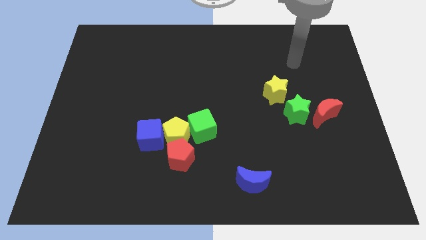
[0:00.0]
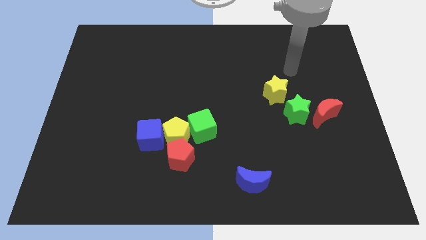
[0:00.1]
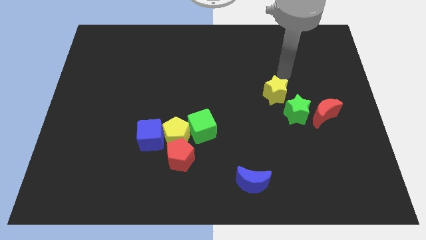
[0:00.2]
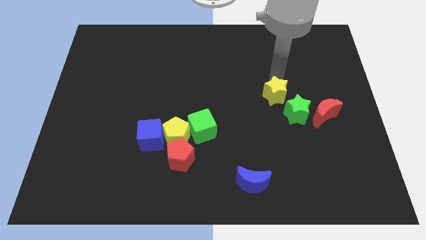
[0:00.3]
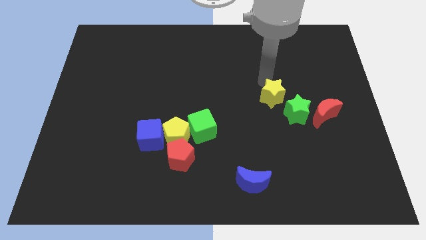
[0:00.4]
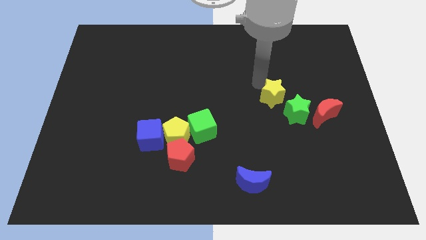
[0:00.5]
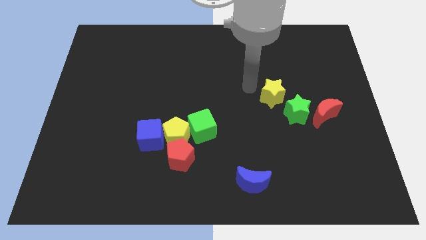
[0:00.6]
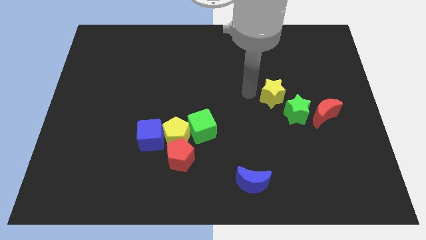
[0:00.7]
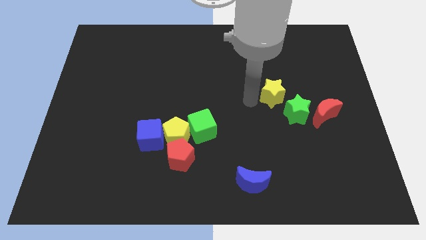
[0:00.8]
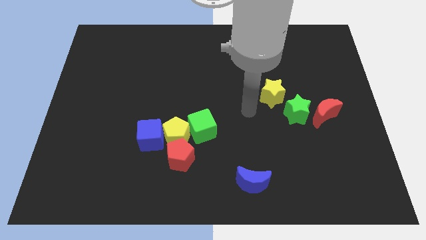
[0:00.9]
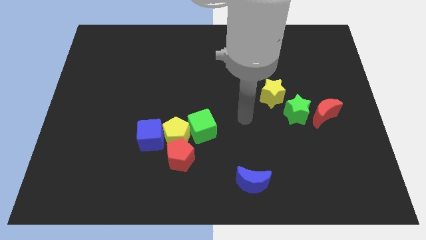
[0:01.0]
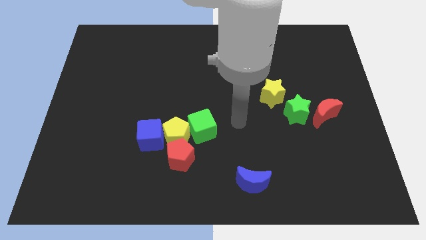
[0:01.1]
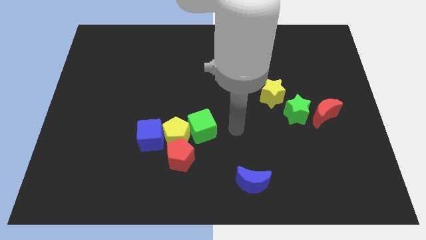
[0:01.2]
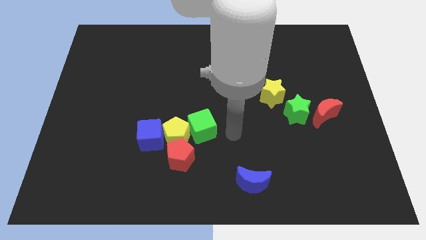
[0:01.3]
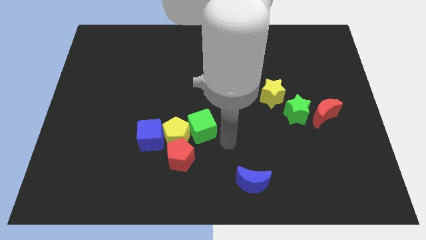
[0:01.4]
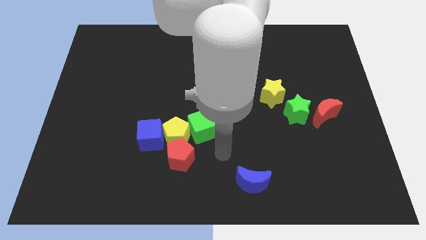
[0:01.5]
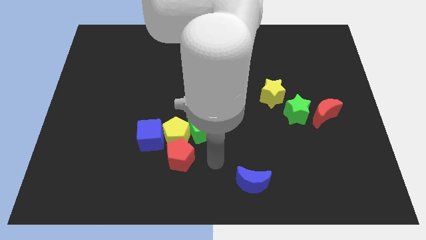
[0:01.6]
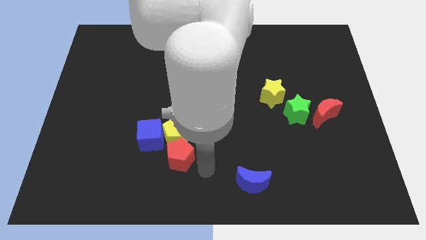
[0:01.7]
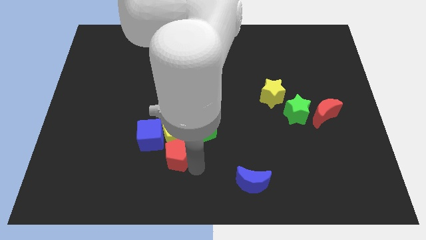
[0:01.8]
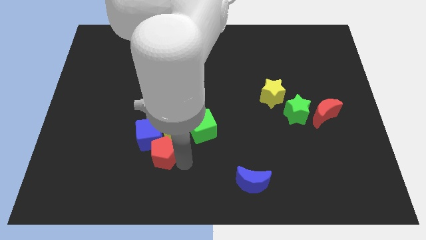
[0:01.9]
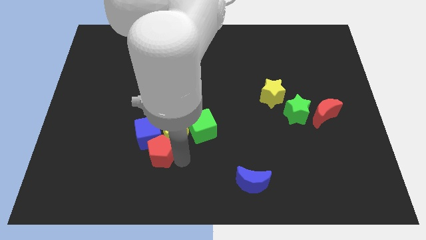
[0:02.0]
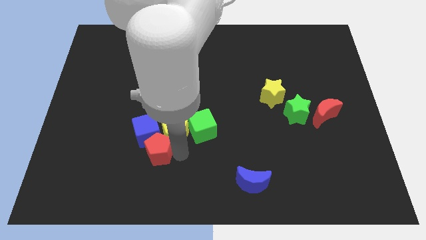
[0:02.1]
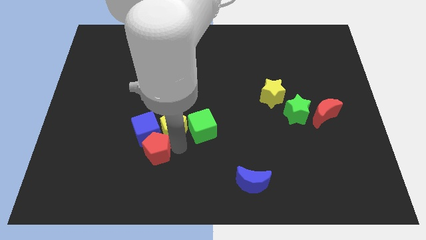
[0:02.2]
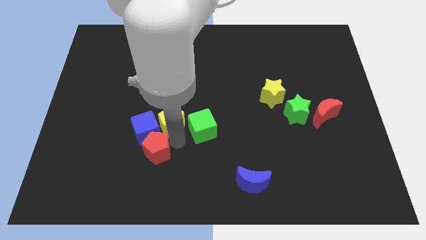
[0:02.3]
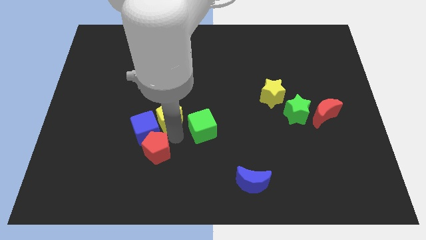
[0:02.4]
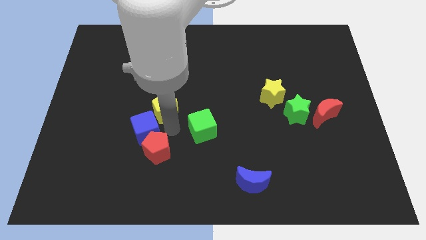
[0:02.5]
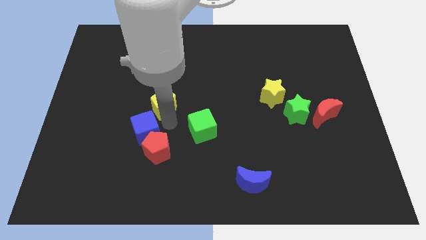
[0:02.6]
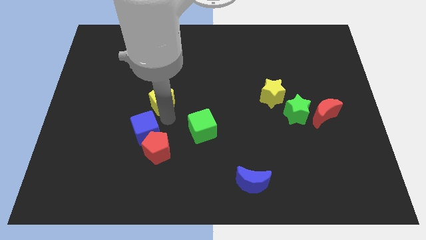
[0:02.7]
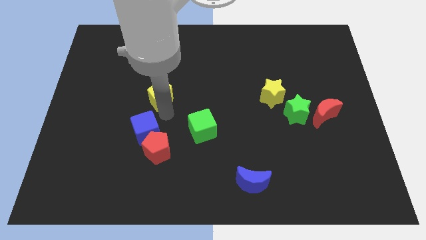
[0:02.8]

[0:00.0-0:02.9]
pull the yellow pentagon apart from the red pentagon, blue cube, and green cube

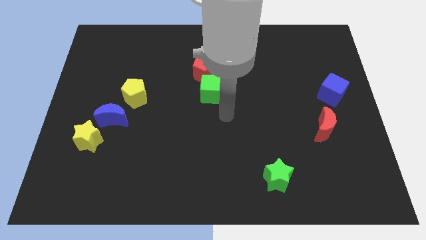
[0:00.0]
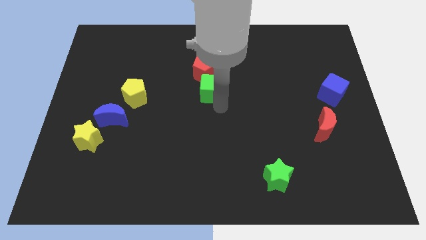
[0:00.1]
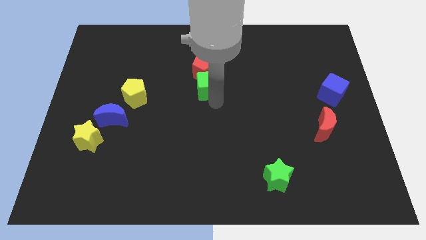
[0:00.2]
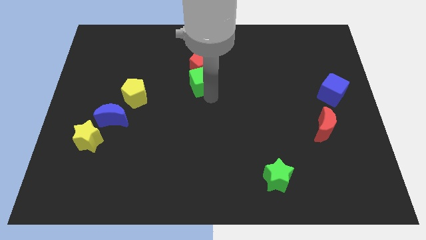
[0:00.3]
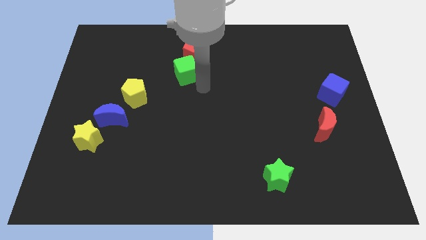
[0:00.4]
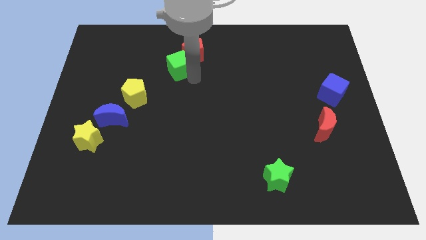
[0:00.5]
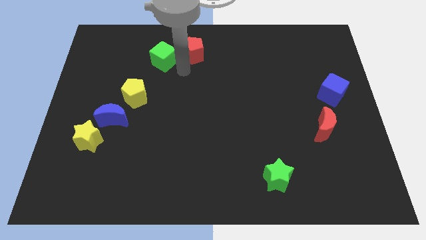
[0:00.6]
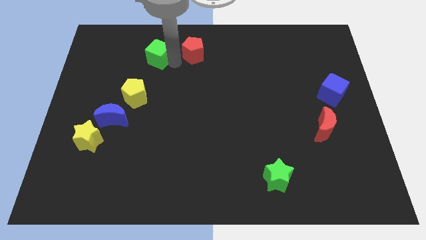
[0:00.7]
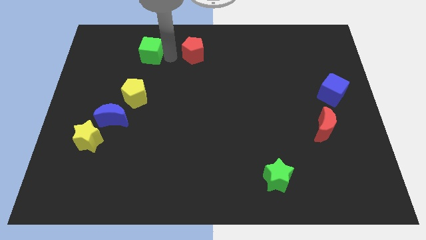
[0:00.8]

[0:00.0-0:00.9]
move the red pentagon away from the green cube

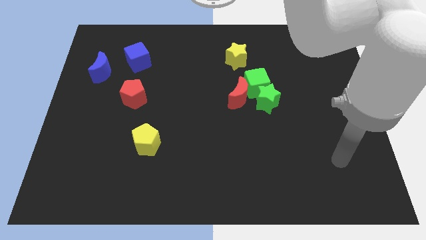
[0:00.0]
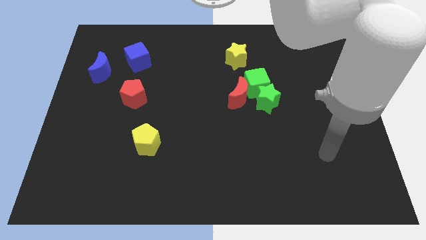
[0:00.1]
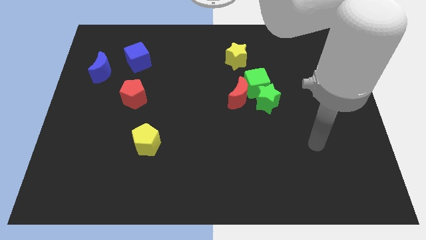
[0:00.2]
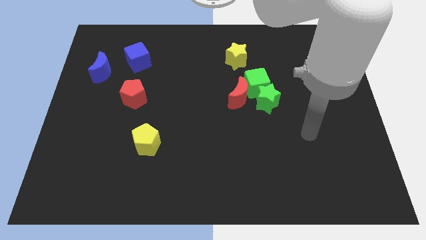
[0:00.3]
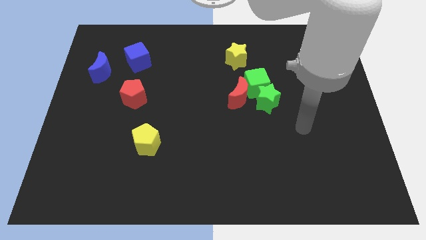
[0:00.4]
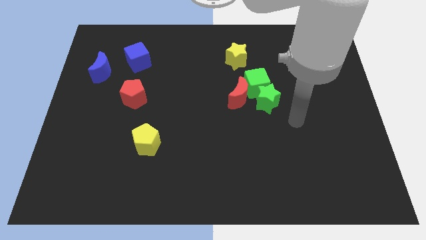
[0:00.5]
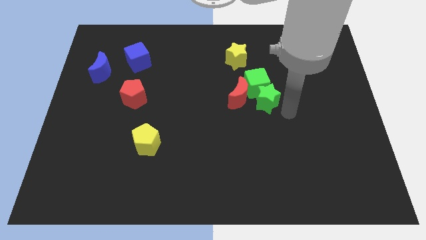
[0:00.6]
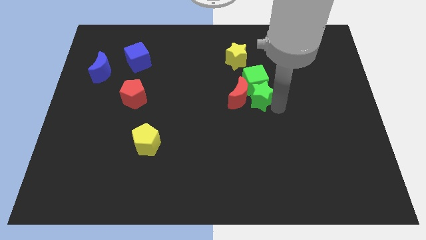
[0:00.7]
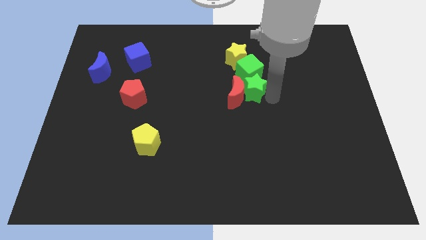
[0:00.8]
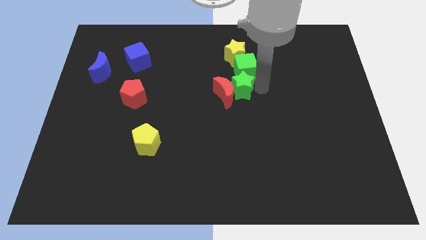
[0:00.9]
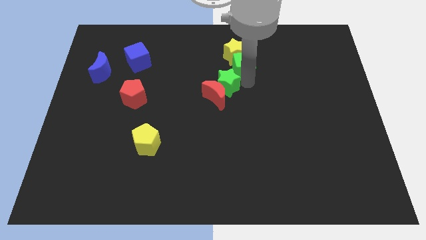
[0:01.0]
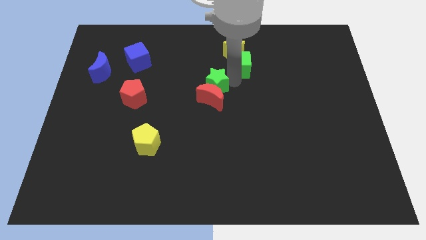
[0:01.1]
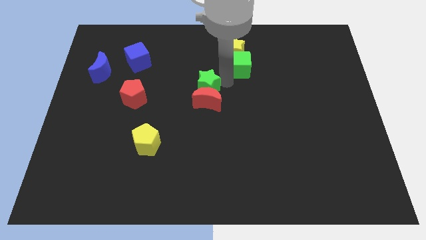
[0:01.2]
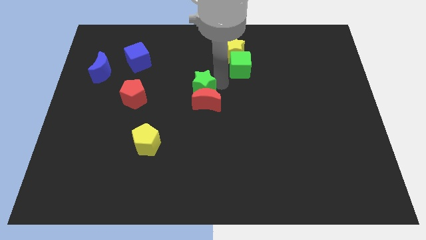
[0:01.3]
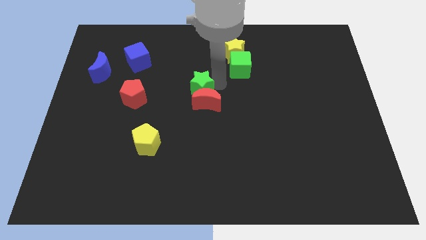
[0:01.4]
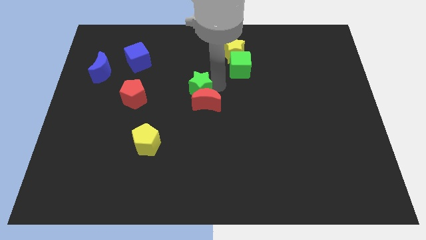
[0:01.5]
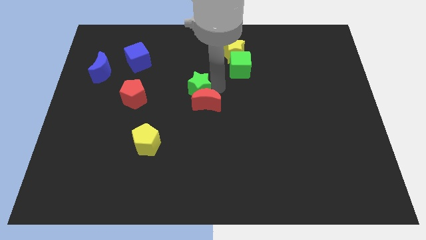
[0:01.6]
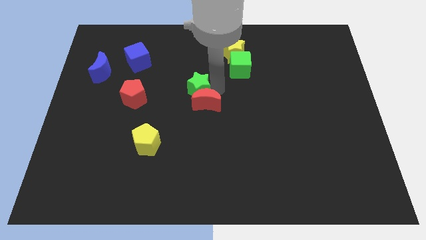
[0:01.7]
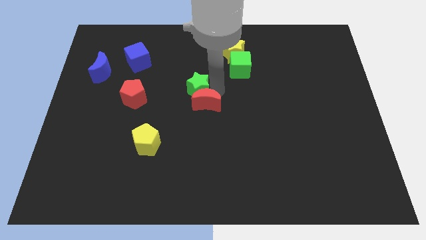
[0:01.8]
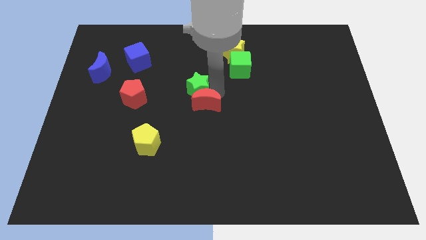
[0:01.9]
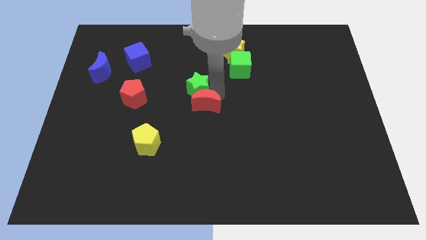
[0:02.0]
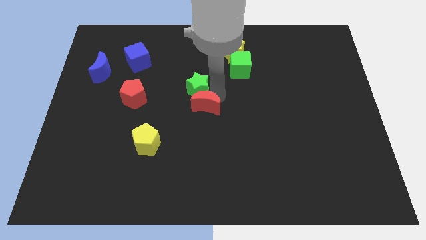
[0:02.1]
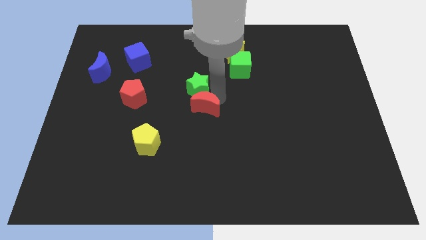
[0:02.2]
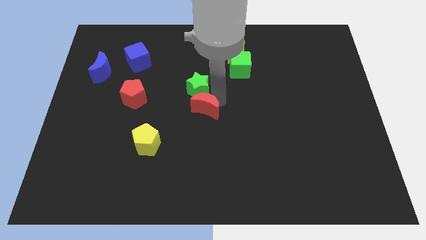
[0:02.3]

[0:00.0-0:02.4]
separate the red moon from the green cube and green star

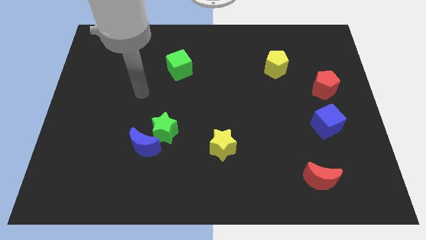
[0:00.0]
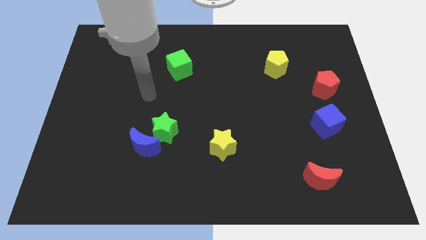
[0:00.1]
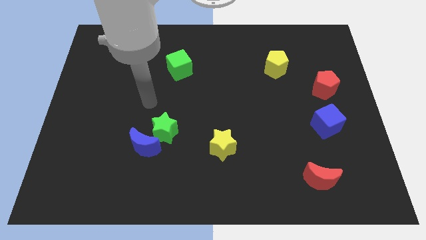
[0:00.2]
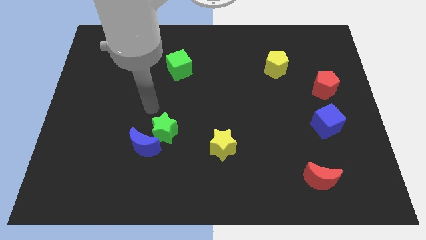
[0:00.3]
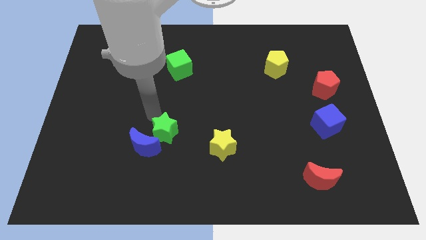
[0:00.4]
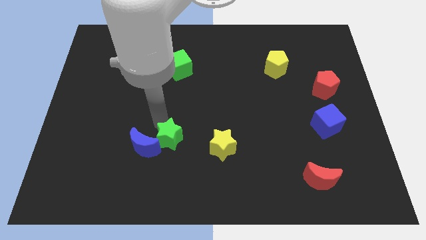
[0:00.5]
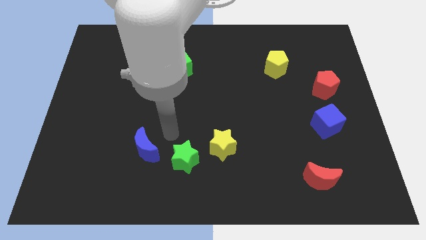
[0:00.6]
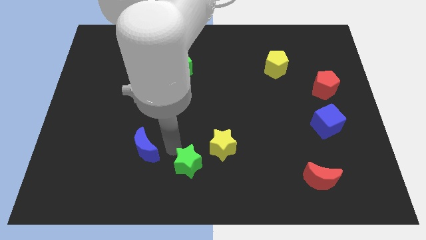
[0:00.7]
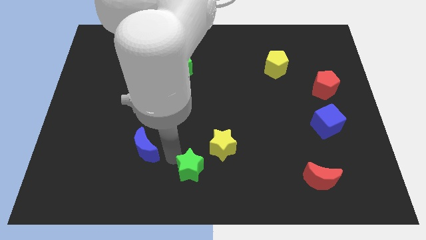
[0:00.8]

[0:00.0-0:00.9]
move the blue moon away from the green star

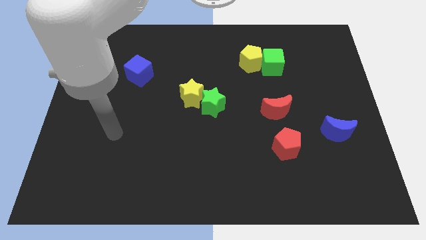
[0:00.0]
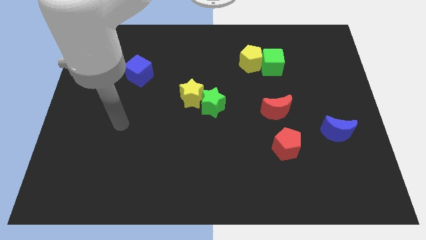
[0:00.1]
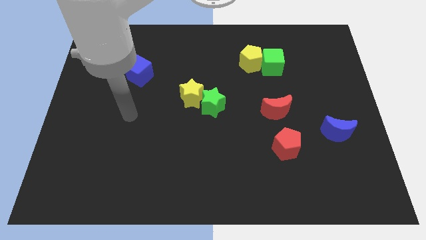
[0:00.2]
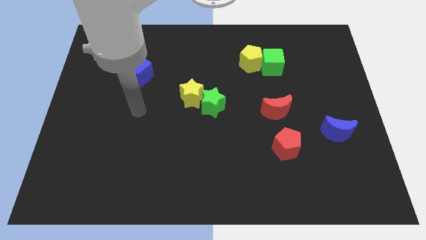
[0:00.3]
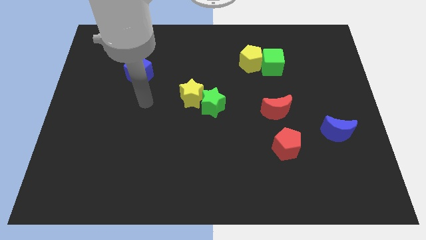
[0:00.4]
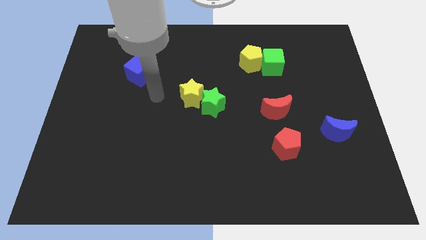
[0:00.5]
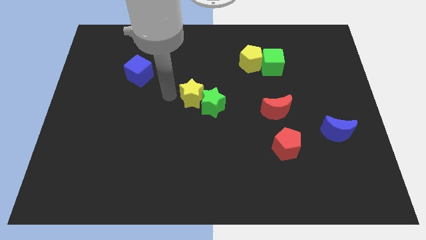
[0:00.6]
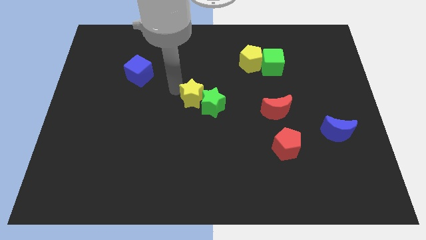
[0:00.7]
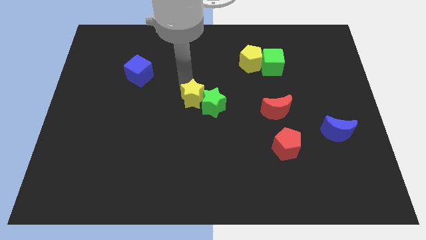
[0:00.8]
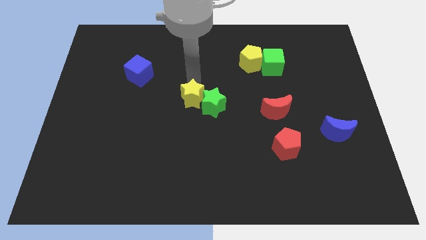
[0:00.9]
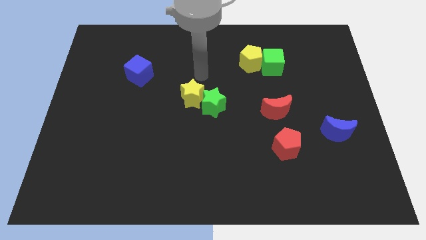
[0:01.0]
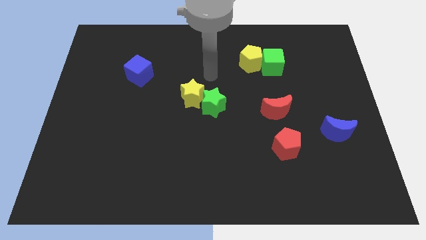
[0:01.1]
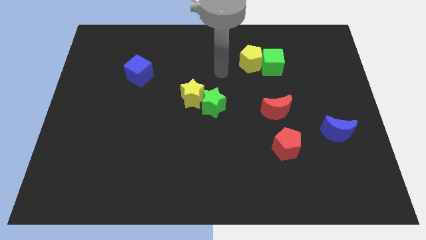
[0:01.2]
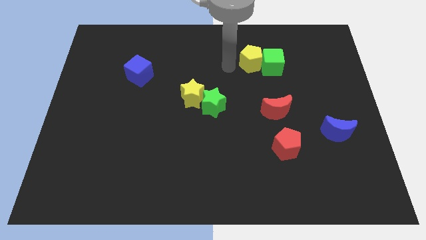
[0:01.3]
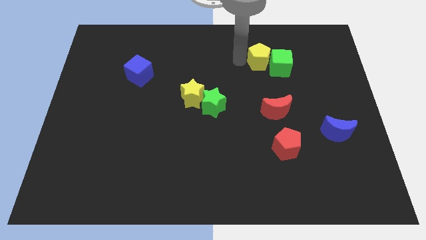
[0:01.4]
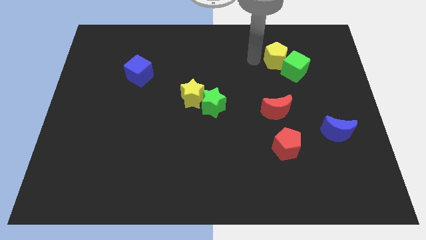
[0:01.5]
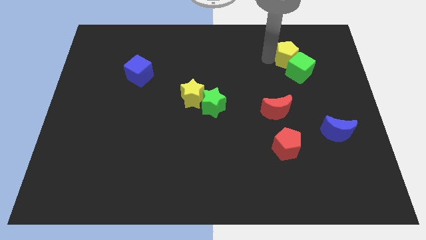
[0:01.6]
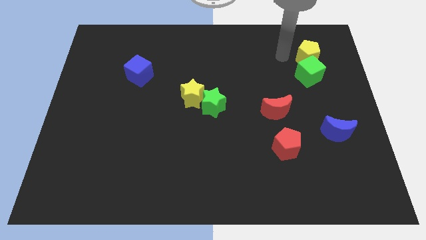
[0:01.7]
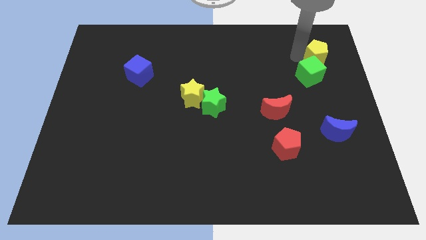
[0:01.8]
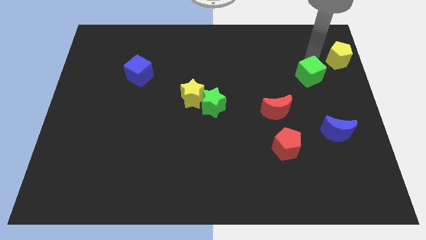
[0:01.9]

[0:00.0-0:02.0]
move the green cube away from the yellow pentagon

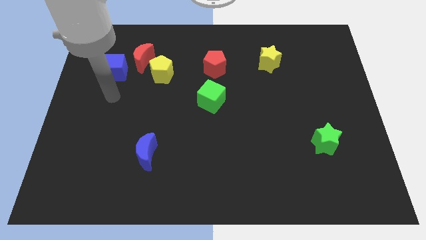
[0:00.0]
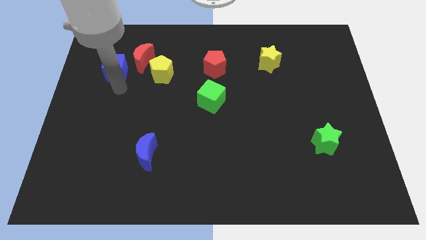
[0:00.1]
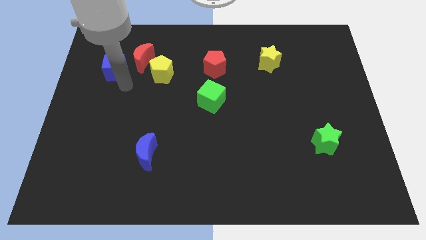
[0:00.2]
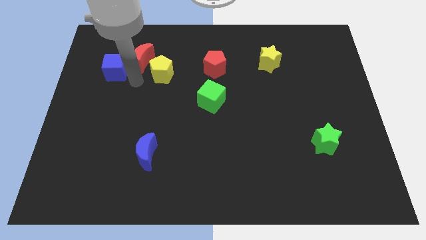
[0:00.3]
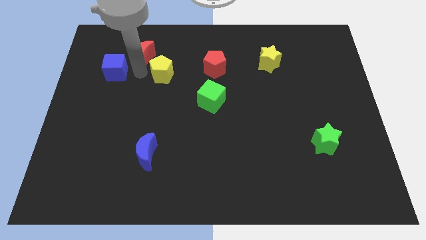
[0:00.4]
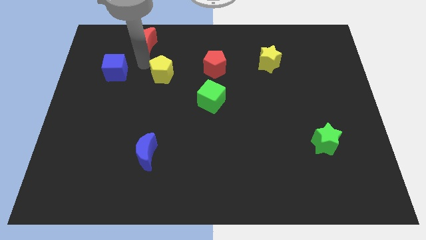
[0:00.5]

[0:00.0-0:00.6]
separate the yellow pentagon from the red moon
